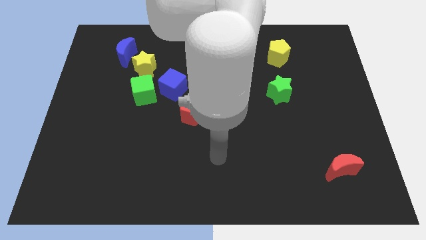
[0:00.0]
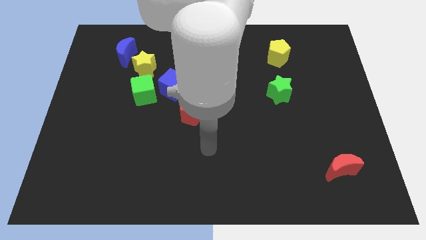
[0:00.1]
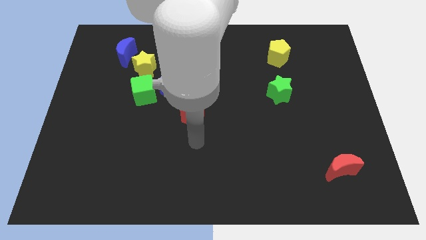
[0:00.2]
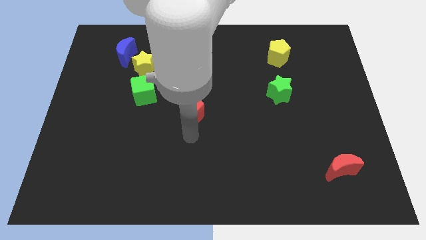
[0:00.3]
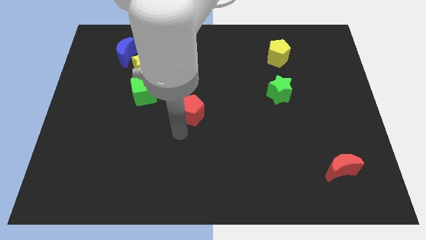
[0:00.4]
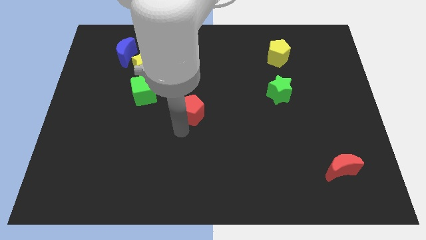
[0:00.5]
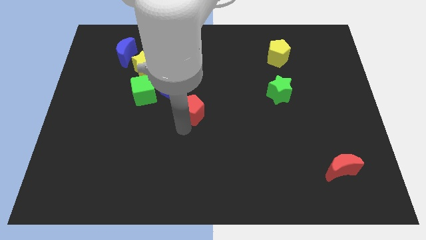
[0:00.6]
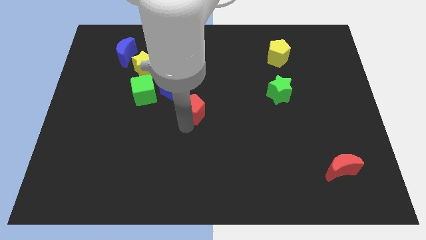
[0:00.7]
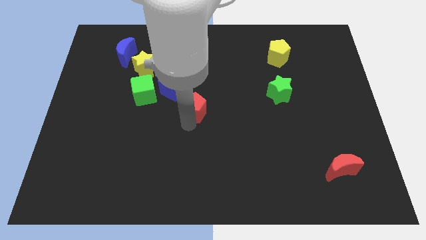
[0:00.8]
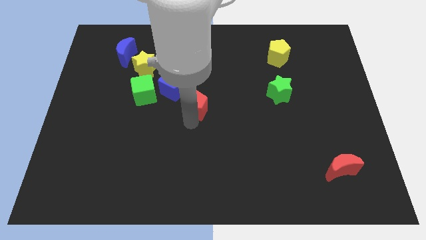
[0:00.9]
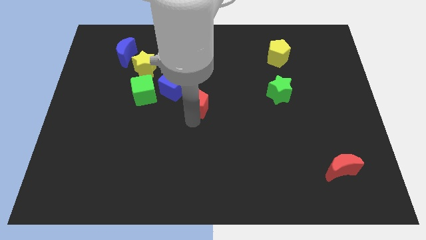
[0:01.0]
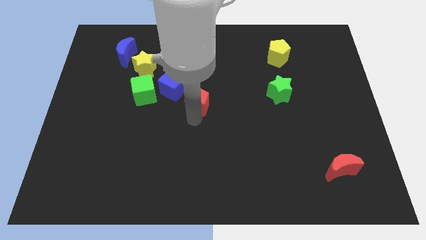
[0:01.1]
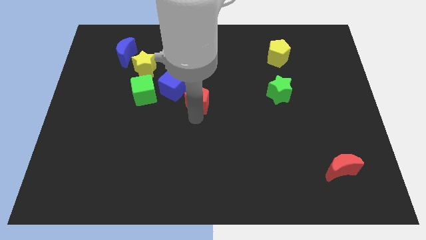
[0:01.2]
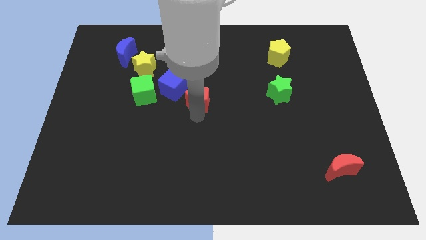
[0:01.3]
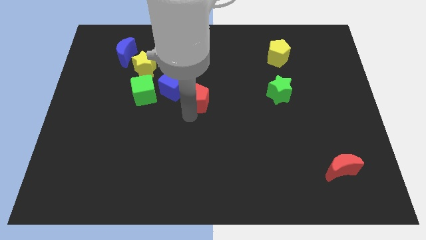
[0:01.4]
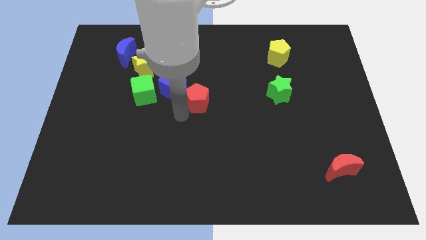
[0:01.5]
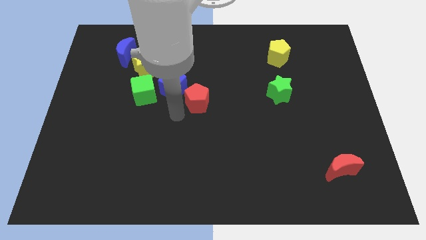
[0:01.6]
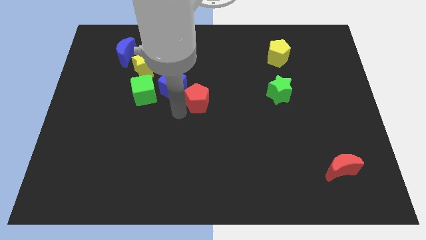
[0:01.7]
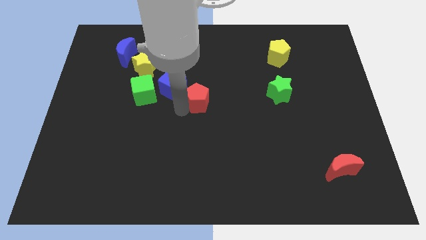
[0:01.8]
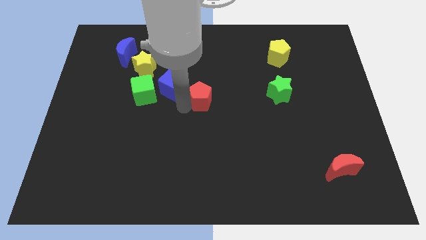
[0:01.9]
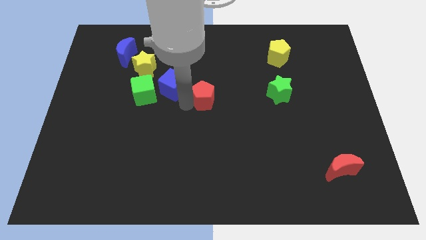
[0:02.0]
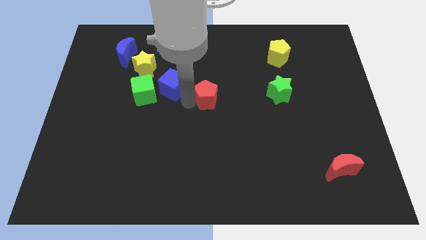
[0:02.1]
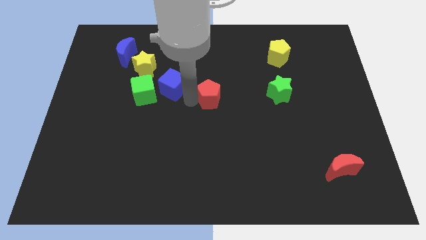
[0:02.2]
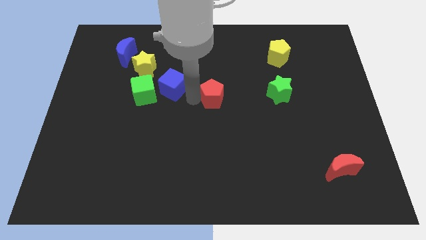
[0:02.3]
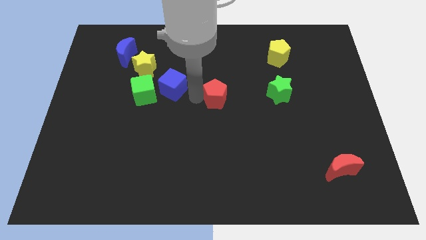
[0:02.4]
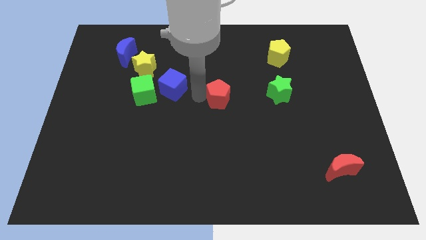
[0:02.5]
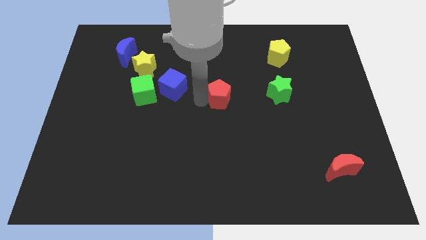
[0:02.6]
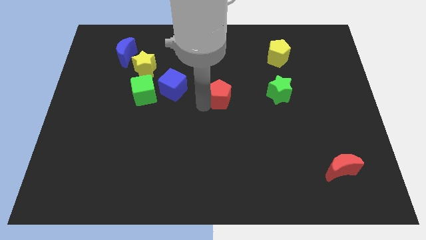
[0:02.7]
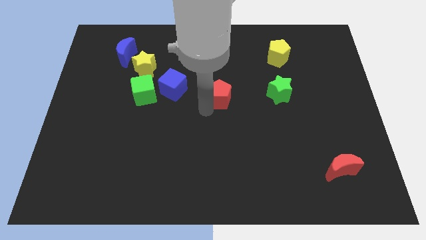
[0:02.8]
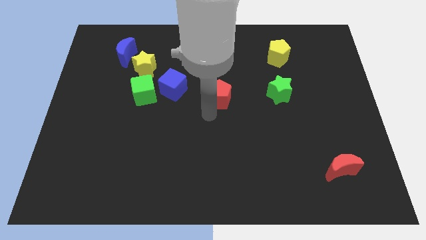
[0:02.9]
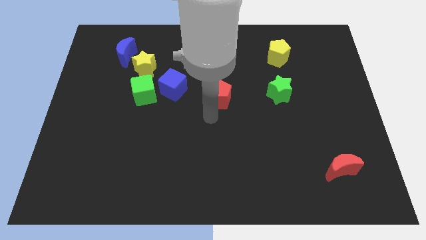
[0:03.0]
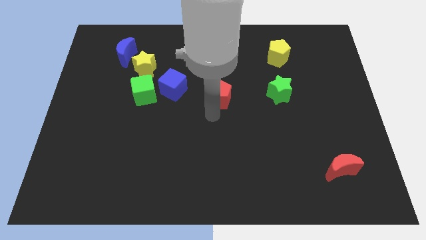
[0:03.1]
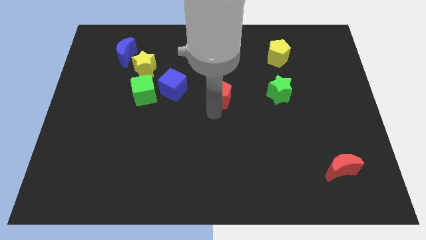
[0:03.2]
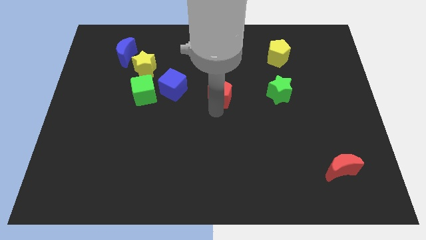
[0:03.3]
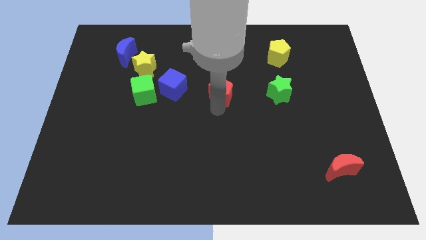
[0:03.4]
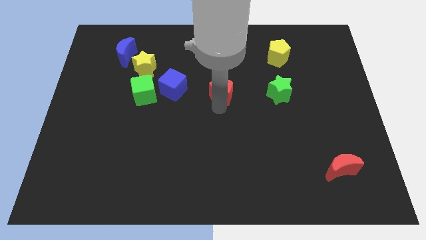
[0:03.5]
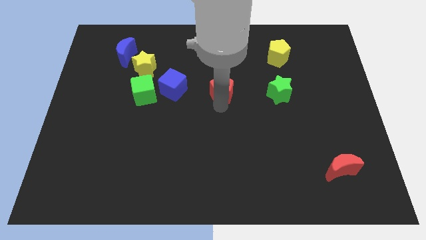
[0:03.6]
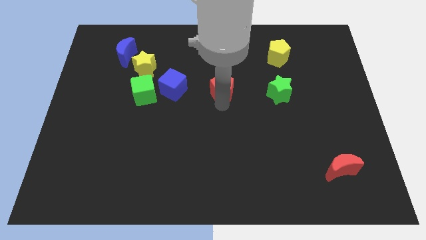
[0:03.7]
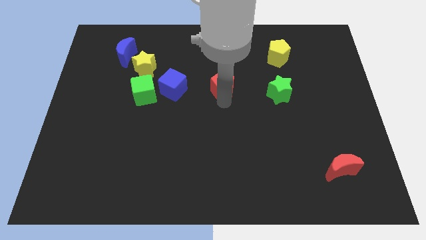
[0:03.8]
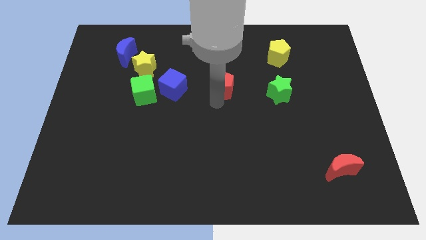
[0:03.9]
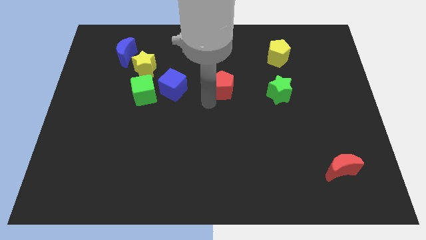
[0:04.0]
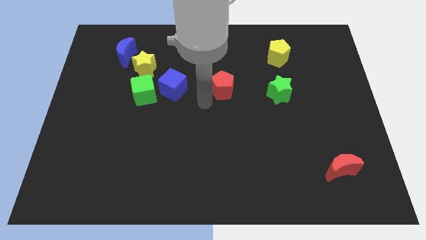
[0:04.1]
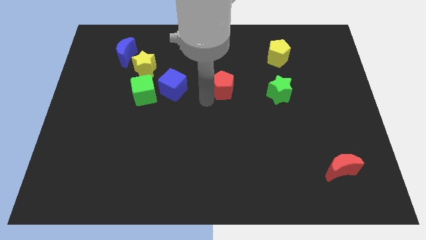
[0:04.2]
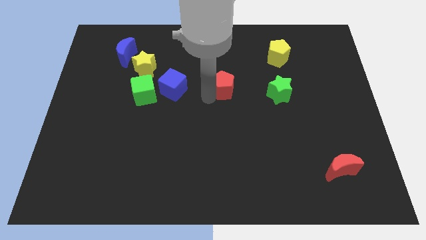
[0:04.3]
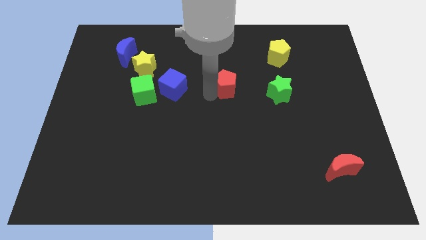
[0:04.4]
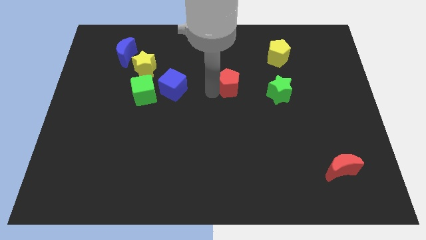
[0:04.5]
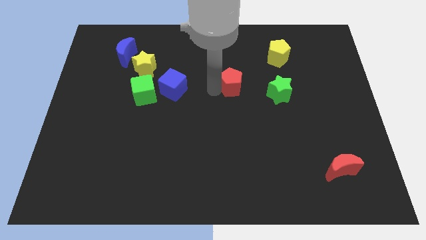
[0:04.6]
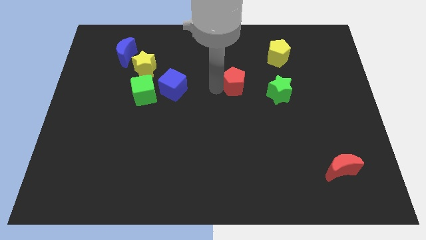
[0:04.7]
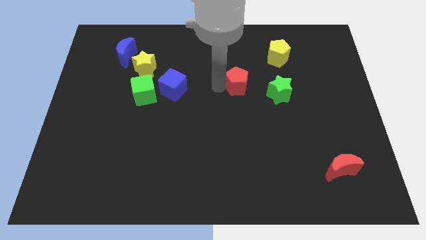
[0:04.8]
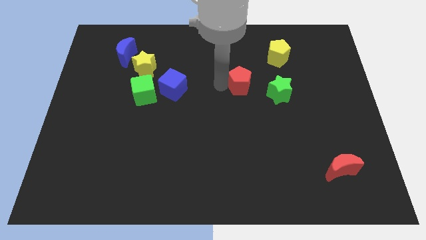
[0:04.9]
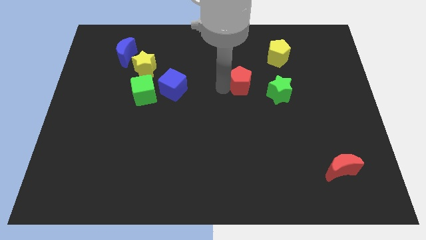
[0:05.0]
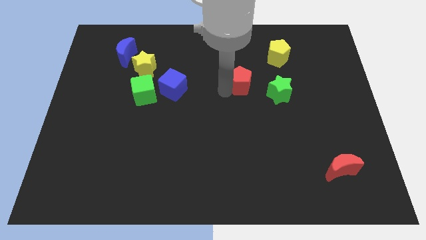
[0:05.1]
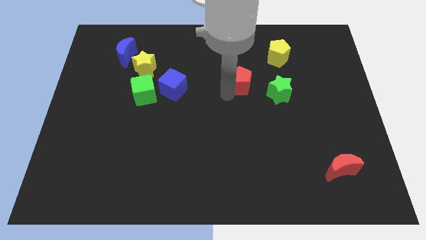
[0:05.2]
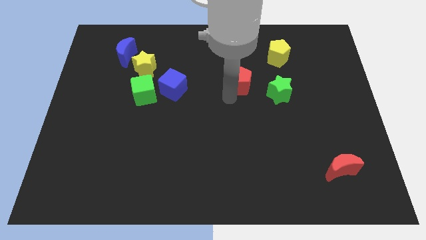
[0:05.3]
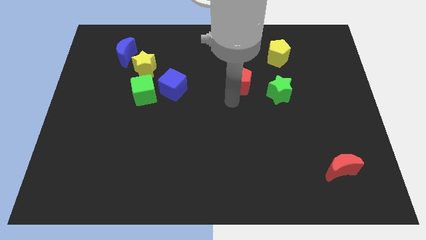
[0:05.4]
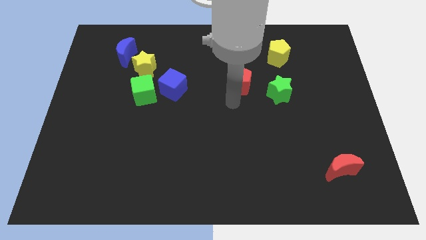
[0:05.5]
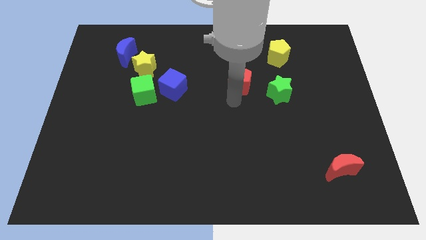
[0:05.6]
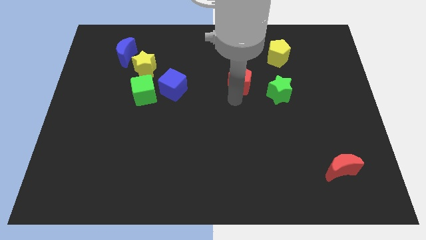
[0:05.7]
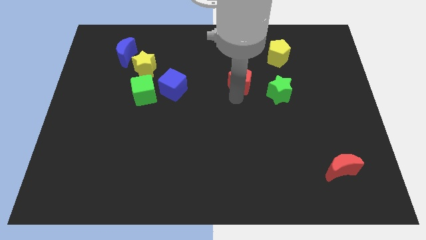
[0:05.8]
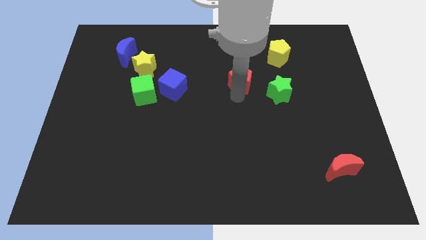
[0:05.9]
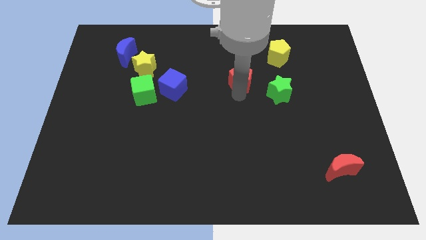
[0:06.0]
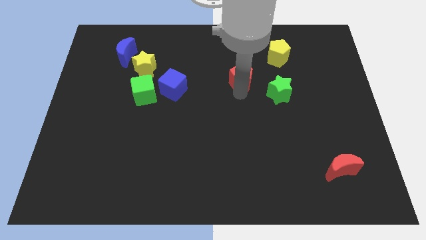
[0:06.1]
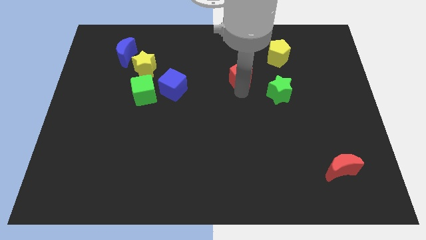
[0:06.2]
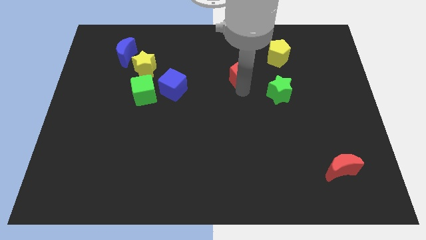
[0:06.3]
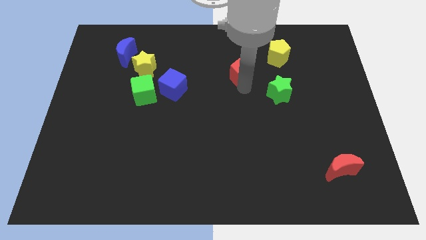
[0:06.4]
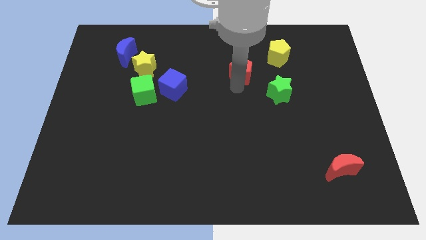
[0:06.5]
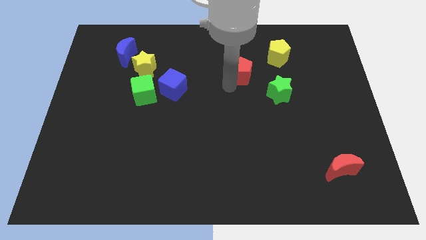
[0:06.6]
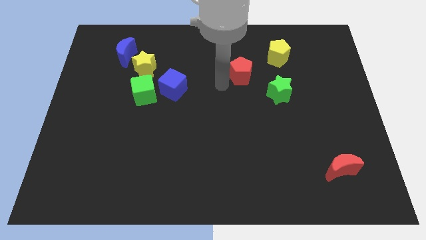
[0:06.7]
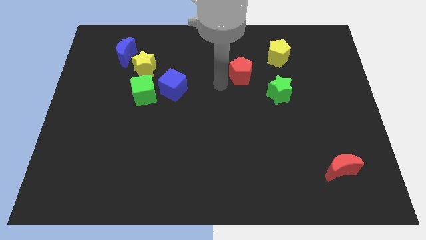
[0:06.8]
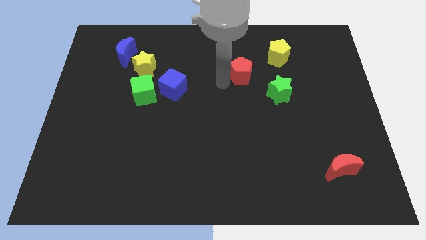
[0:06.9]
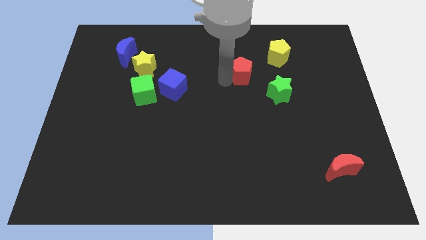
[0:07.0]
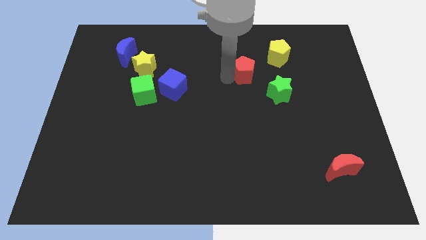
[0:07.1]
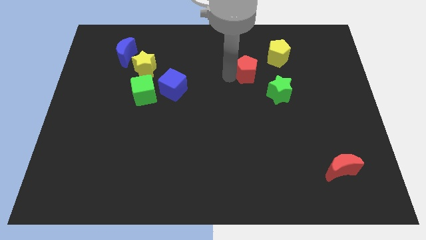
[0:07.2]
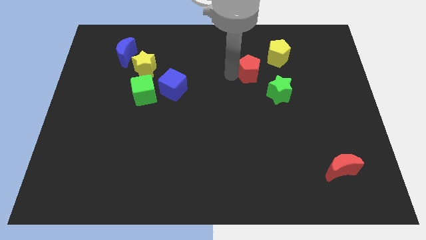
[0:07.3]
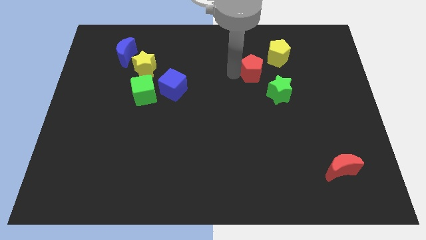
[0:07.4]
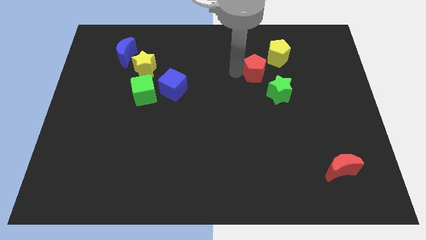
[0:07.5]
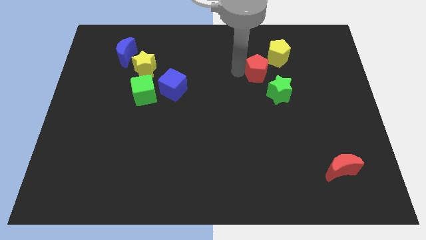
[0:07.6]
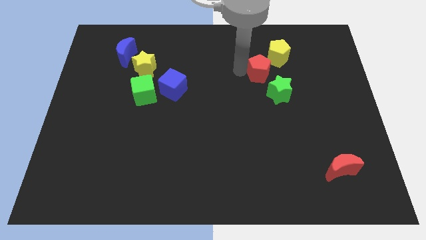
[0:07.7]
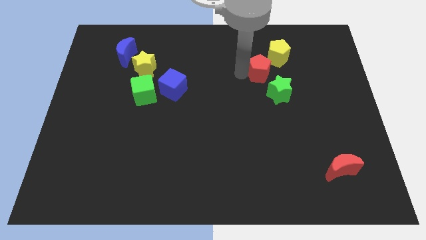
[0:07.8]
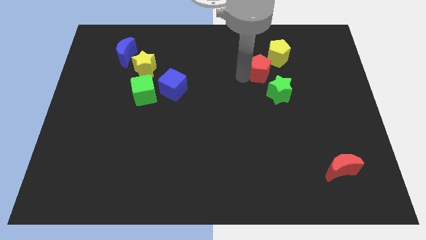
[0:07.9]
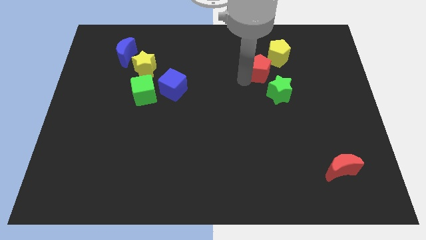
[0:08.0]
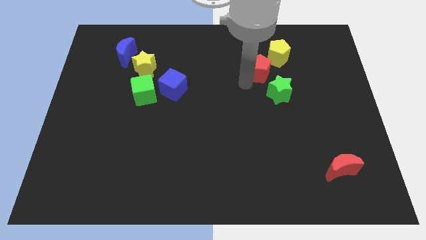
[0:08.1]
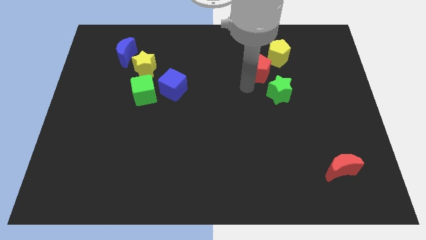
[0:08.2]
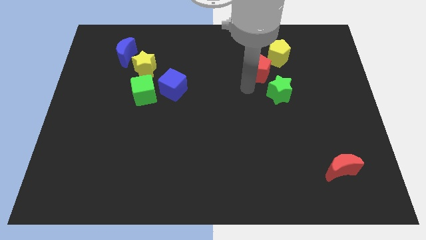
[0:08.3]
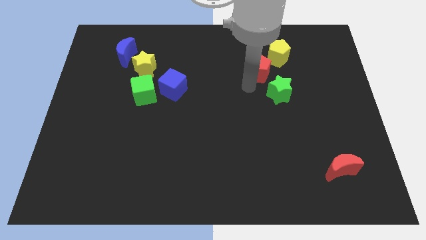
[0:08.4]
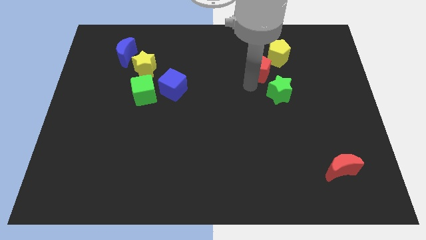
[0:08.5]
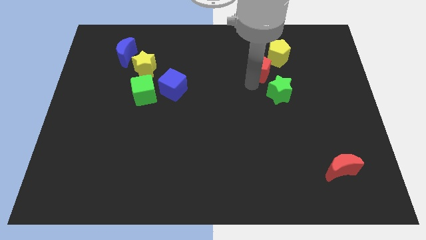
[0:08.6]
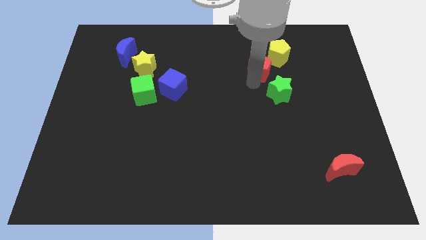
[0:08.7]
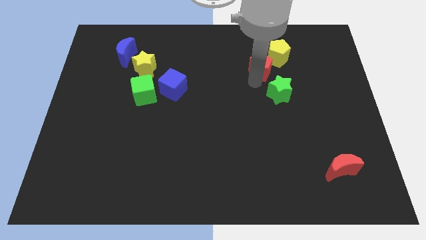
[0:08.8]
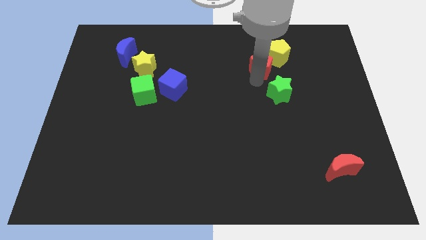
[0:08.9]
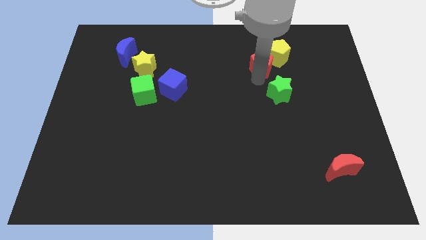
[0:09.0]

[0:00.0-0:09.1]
move the red pentagon close to the yellow pentagon
